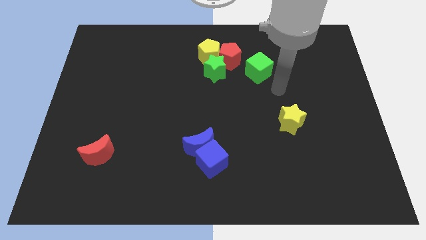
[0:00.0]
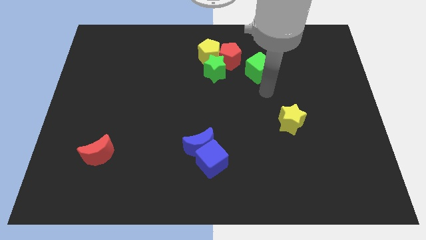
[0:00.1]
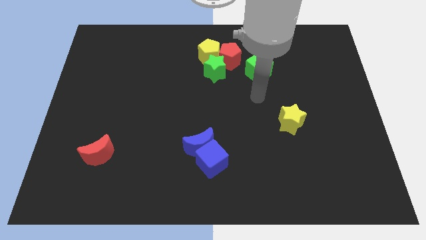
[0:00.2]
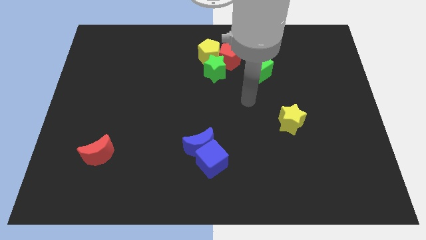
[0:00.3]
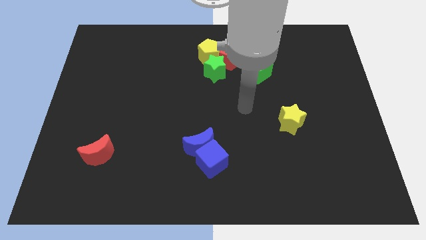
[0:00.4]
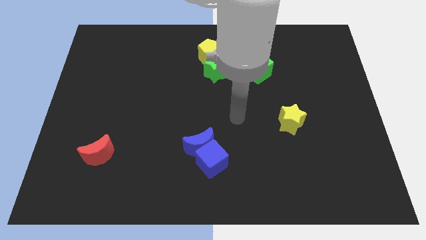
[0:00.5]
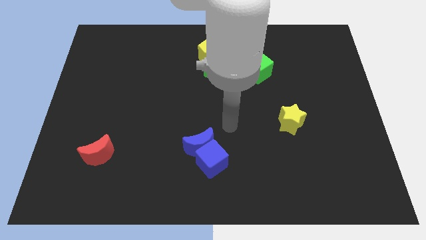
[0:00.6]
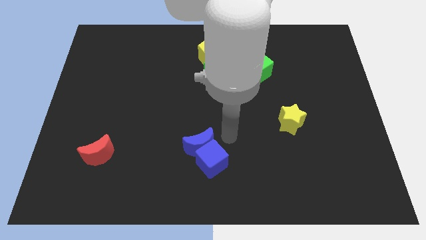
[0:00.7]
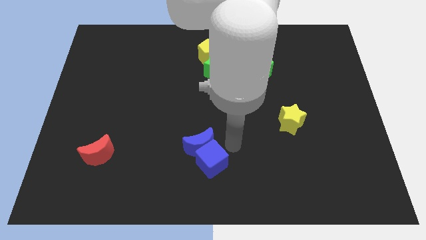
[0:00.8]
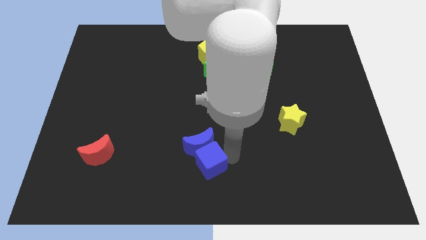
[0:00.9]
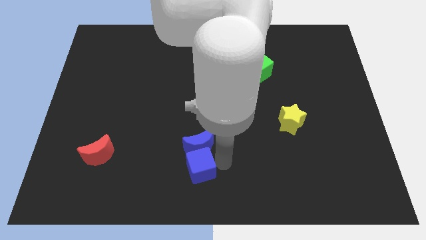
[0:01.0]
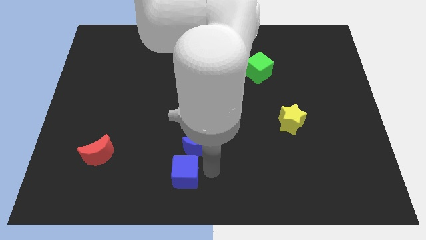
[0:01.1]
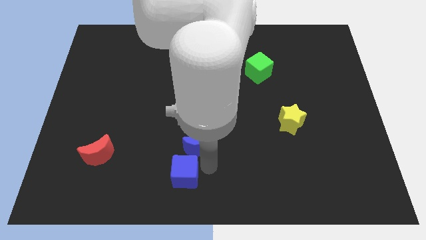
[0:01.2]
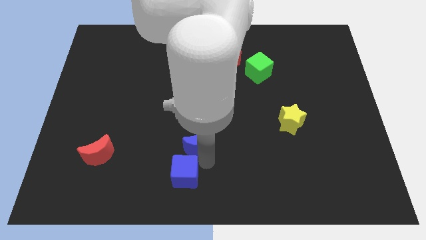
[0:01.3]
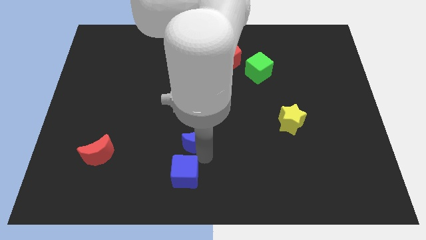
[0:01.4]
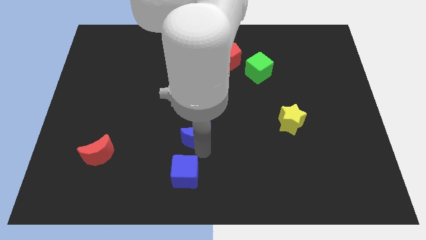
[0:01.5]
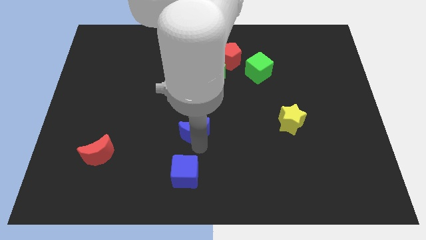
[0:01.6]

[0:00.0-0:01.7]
pull the blue moon apart from the blue cube

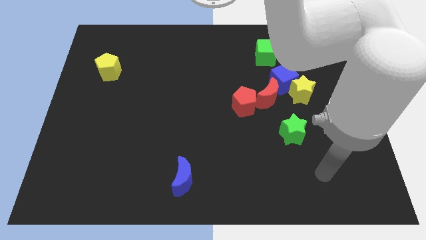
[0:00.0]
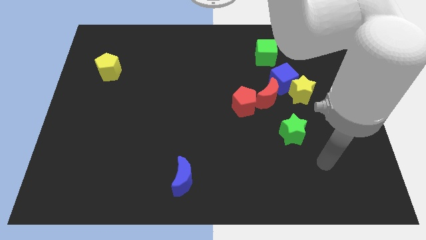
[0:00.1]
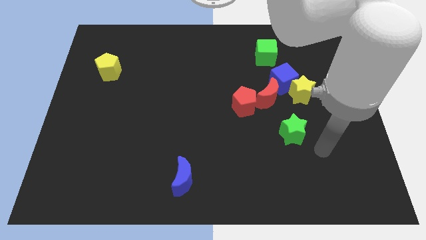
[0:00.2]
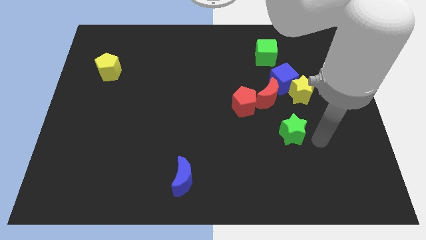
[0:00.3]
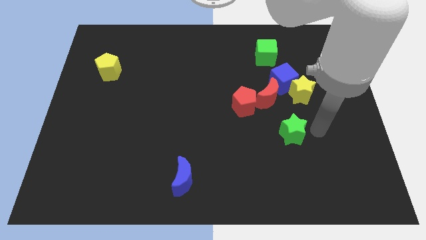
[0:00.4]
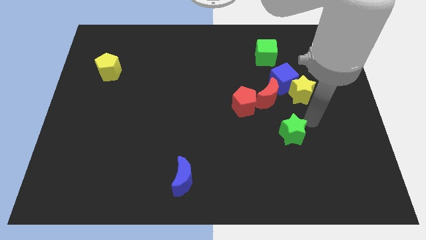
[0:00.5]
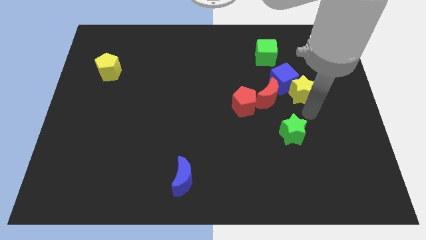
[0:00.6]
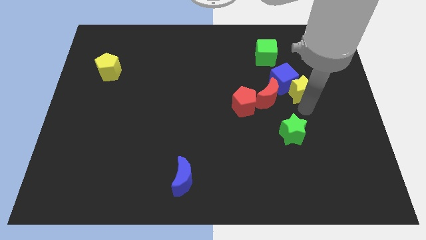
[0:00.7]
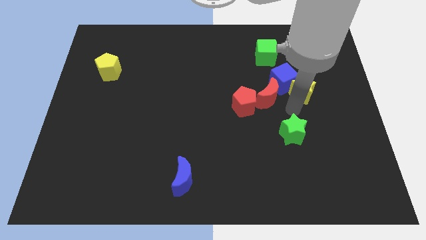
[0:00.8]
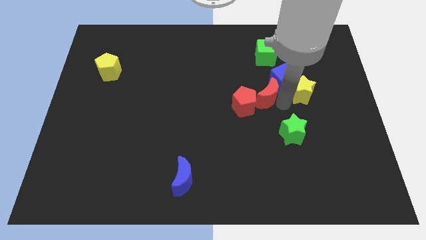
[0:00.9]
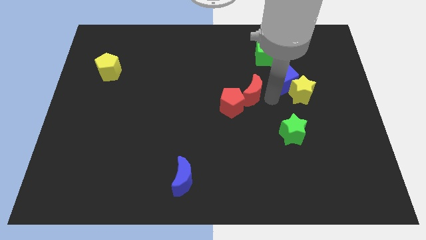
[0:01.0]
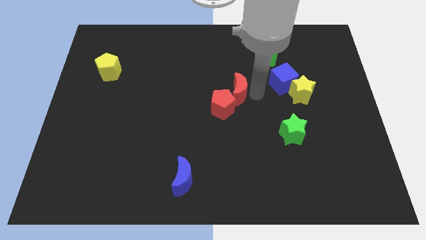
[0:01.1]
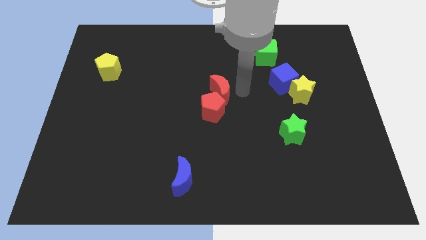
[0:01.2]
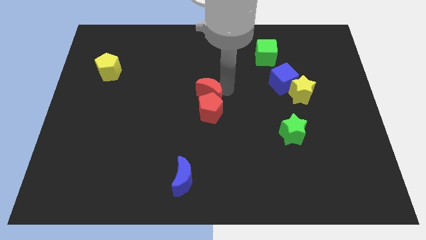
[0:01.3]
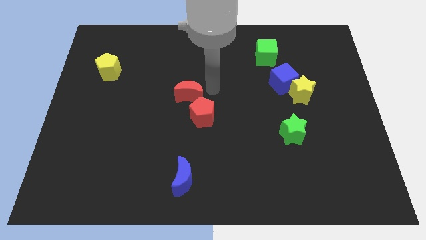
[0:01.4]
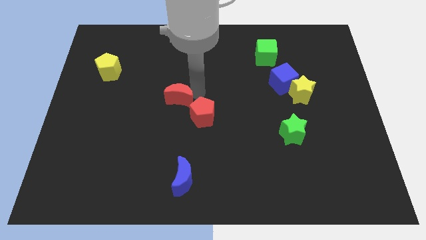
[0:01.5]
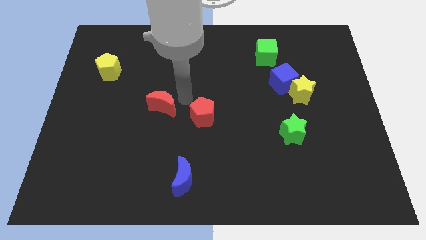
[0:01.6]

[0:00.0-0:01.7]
pull the red pentagon apart from the red moon

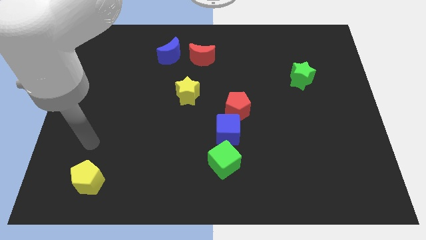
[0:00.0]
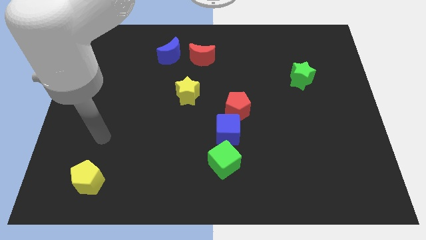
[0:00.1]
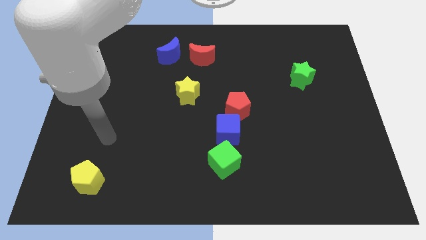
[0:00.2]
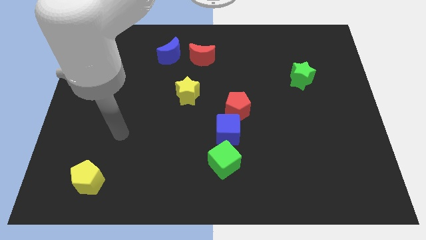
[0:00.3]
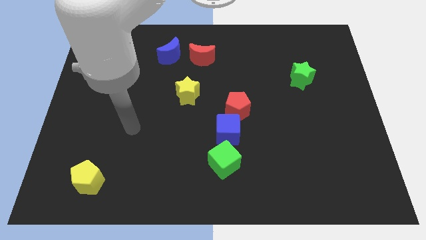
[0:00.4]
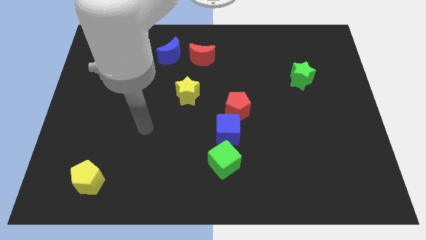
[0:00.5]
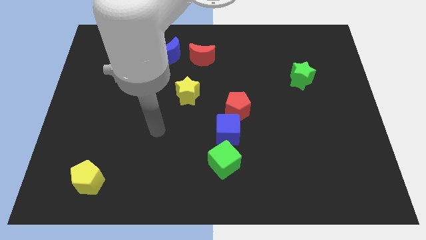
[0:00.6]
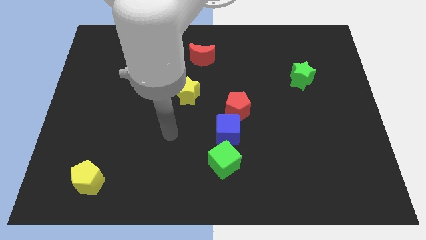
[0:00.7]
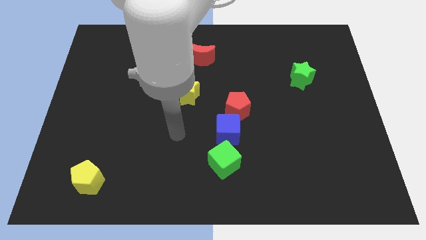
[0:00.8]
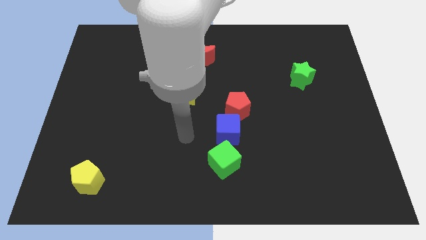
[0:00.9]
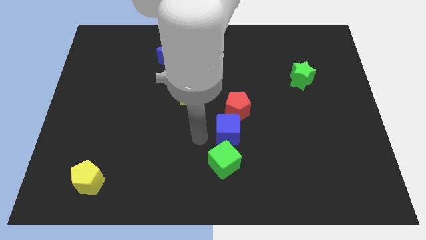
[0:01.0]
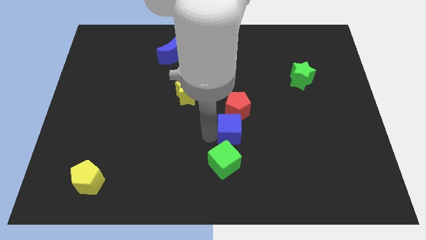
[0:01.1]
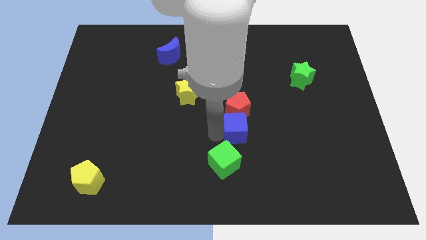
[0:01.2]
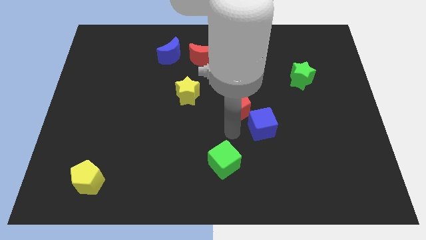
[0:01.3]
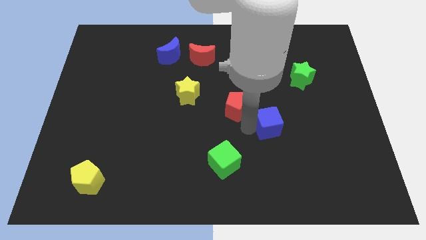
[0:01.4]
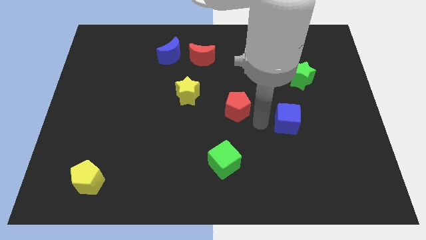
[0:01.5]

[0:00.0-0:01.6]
separate the red pentagon from the blue cube

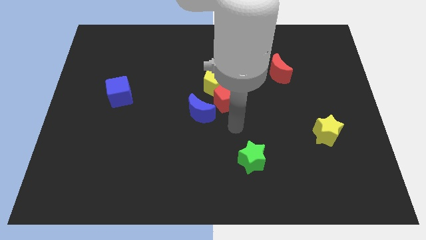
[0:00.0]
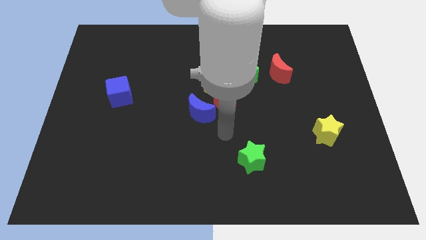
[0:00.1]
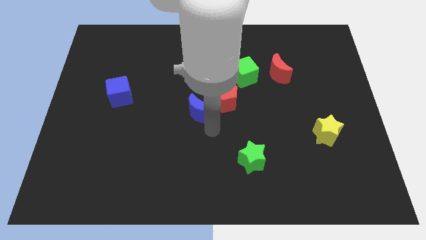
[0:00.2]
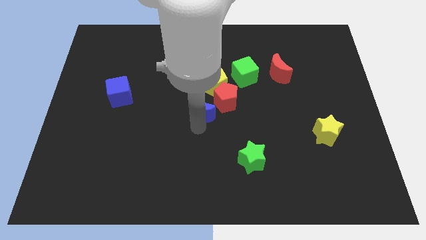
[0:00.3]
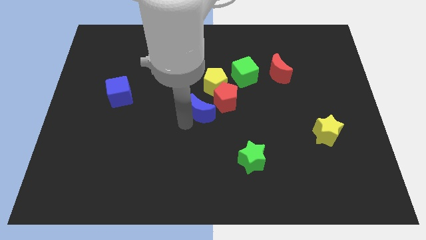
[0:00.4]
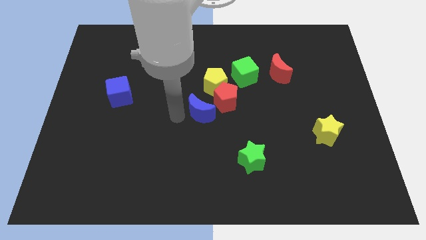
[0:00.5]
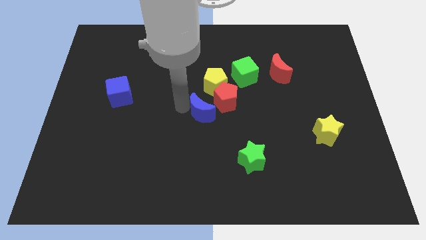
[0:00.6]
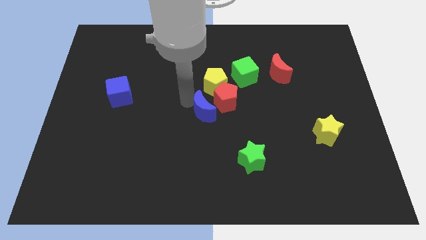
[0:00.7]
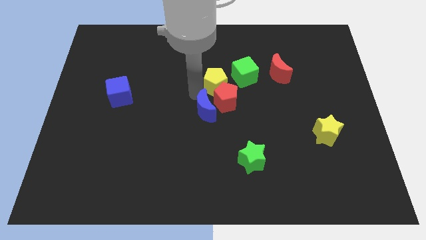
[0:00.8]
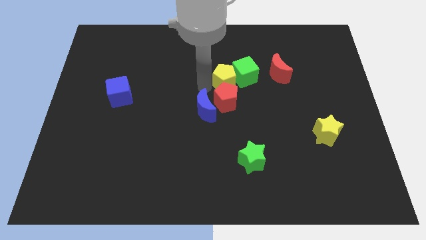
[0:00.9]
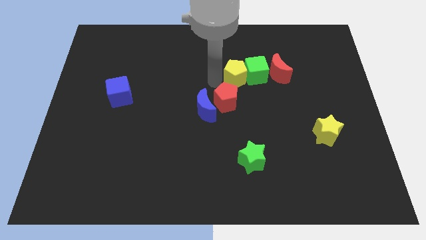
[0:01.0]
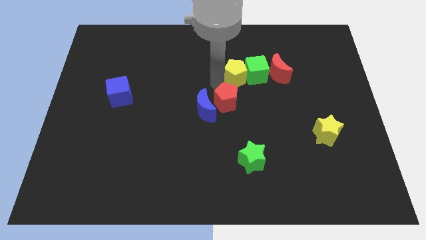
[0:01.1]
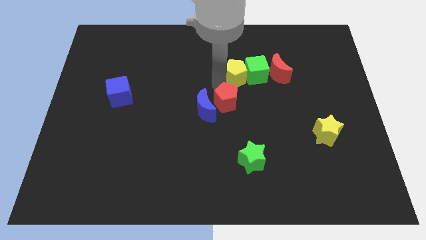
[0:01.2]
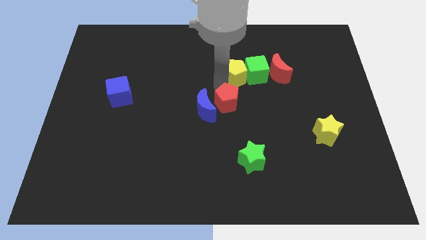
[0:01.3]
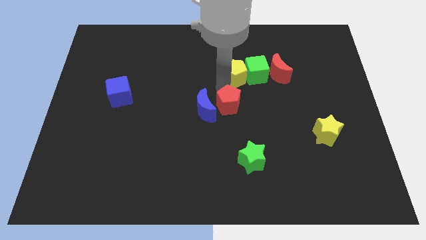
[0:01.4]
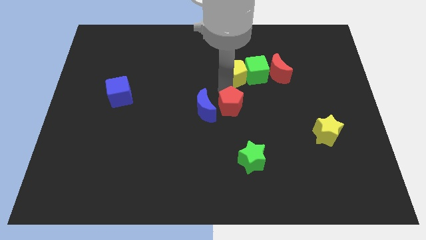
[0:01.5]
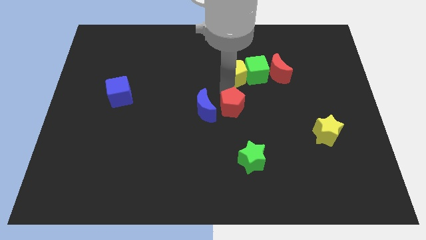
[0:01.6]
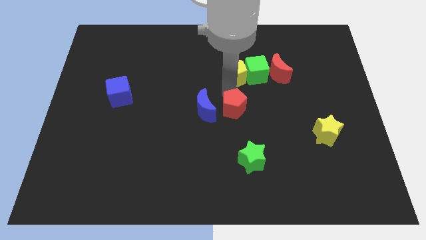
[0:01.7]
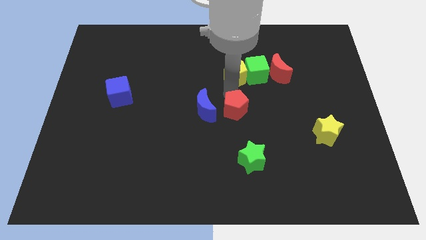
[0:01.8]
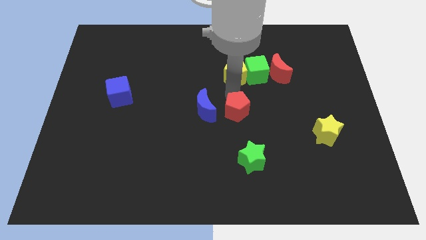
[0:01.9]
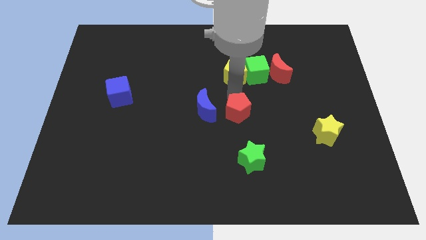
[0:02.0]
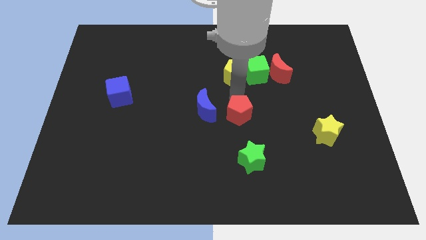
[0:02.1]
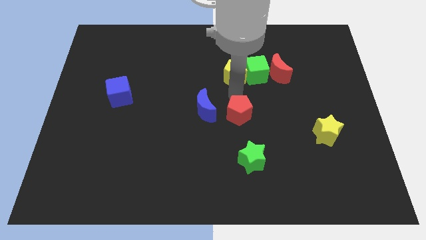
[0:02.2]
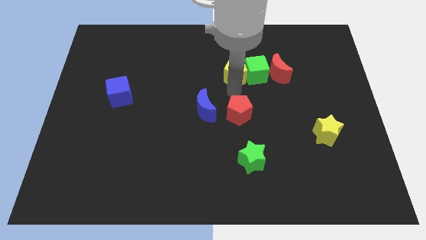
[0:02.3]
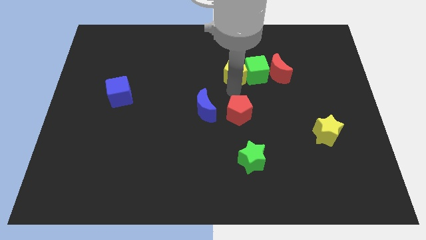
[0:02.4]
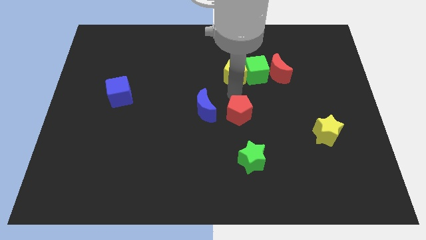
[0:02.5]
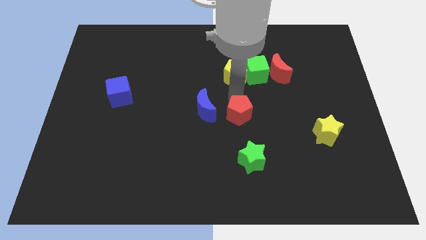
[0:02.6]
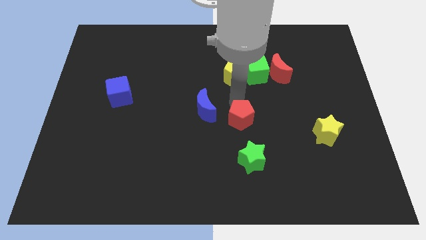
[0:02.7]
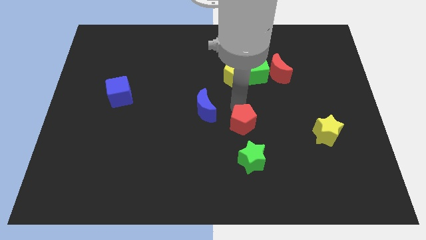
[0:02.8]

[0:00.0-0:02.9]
move the red pentagon away from the group

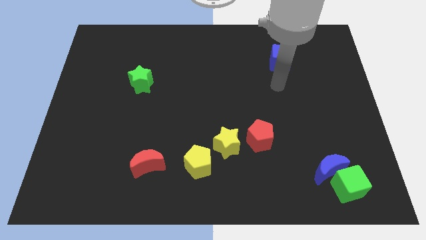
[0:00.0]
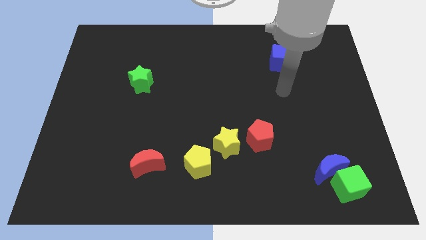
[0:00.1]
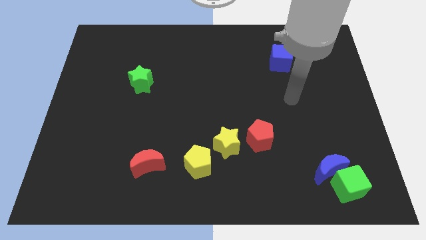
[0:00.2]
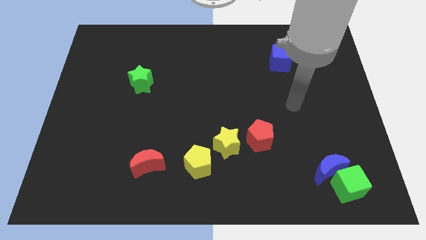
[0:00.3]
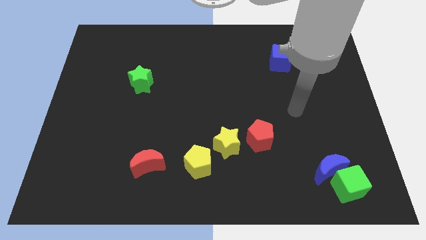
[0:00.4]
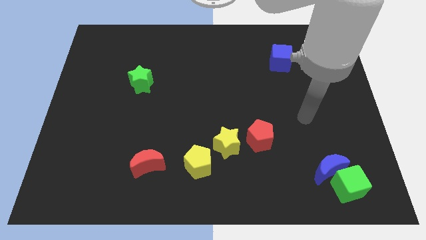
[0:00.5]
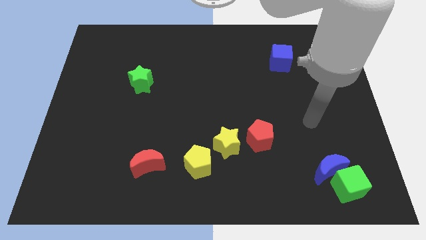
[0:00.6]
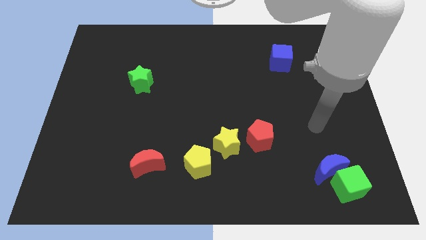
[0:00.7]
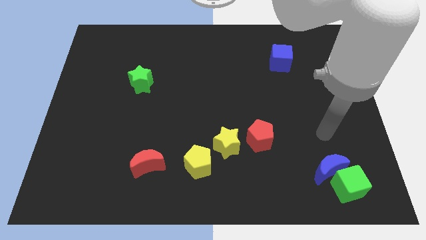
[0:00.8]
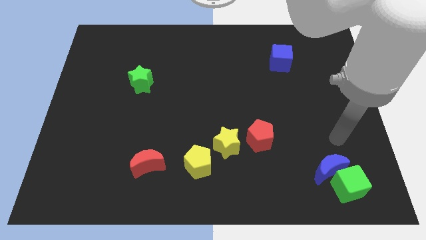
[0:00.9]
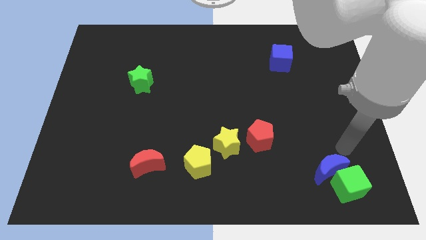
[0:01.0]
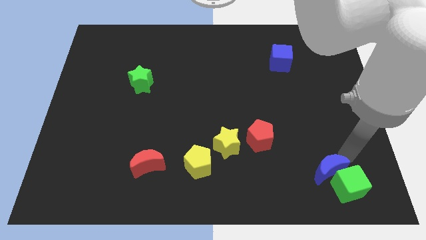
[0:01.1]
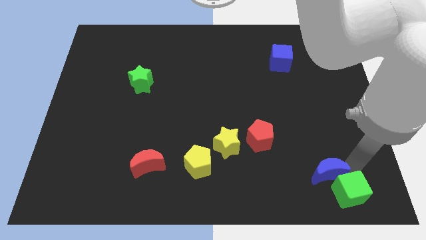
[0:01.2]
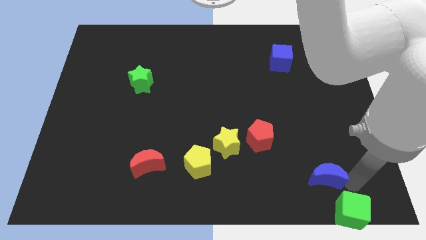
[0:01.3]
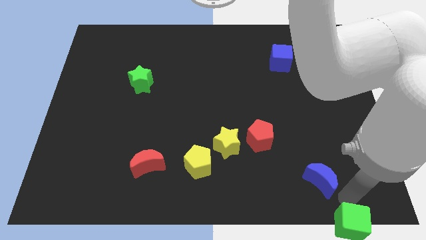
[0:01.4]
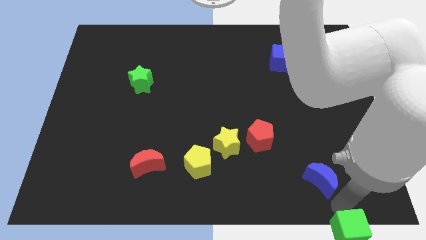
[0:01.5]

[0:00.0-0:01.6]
move the blue moon away from the green cube
